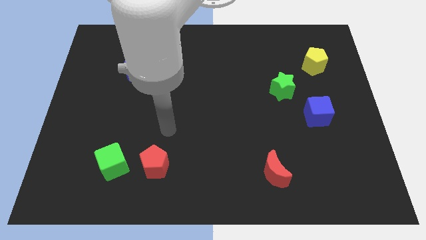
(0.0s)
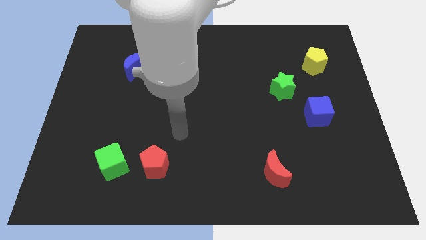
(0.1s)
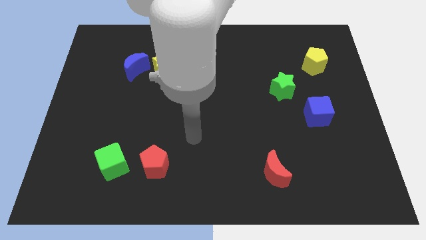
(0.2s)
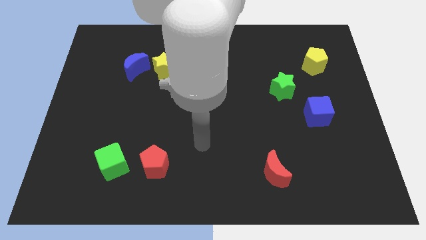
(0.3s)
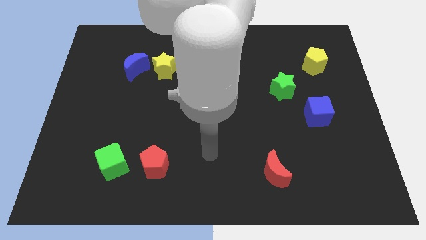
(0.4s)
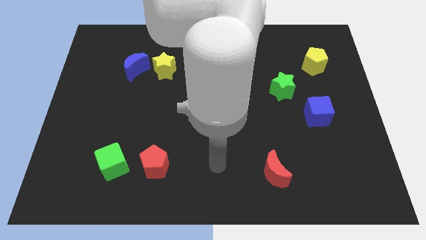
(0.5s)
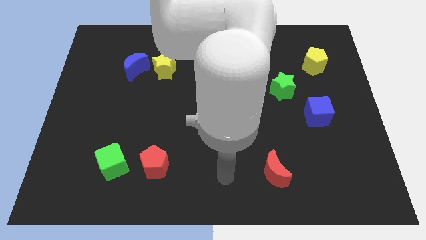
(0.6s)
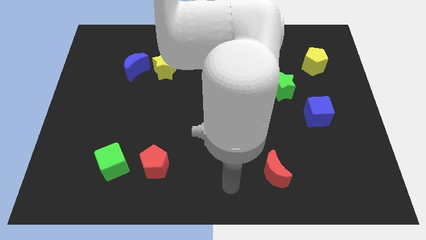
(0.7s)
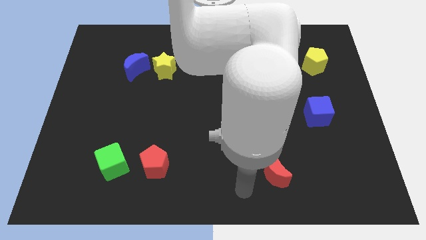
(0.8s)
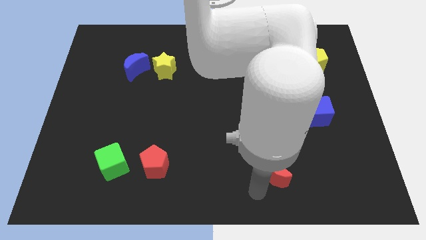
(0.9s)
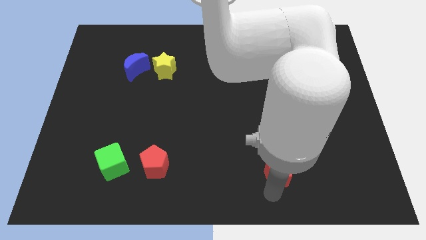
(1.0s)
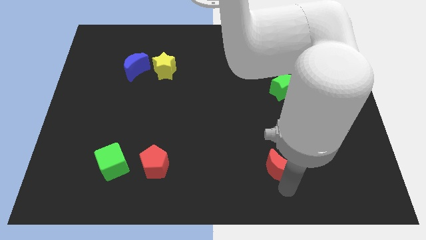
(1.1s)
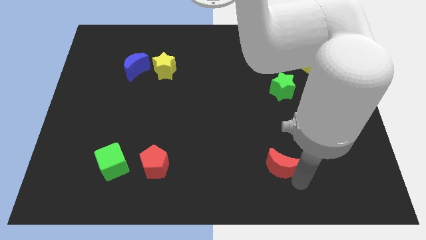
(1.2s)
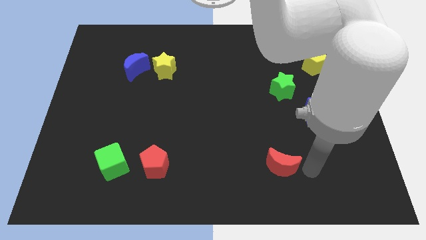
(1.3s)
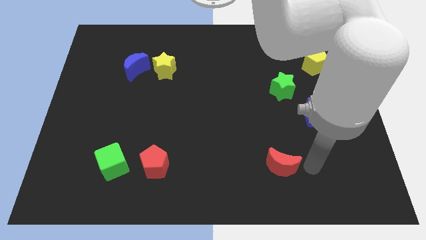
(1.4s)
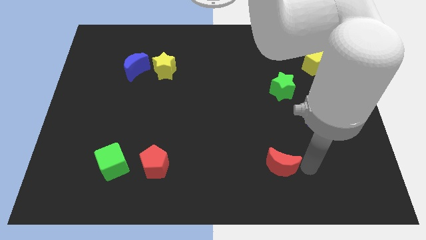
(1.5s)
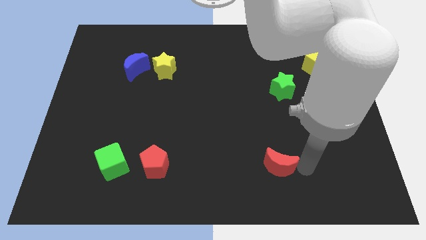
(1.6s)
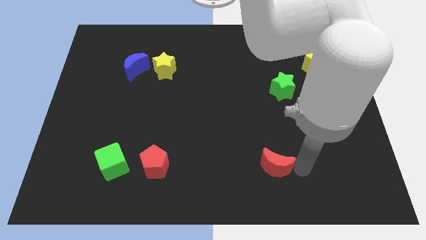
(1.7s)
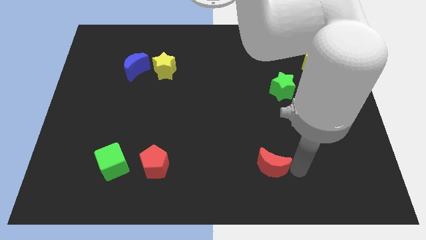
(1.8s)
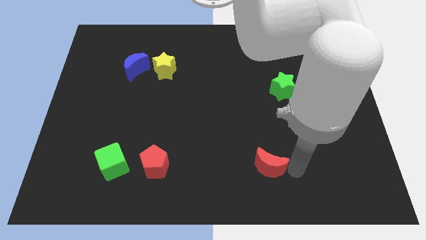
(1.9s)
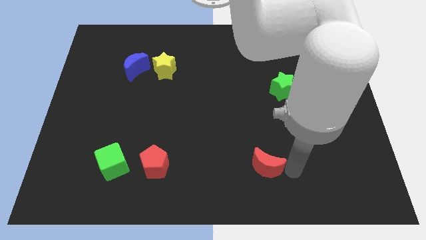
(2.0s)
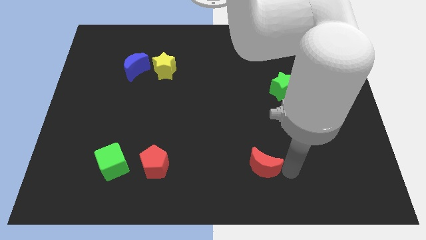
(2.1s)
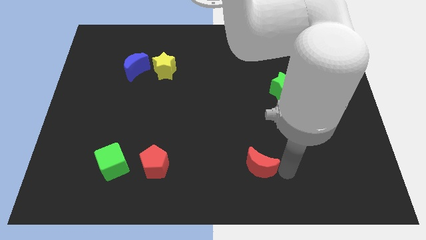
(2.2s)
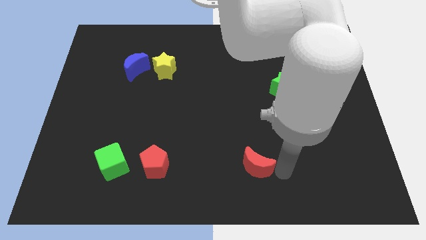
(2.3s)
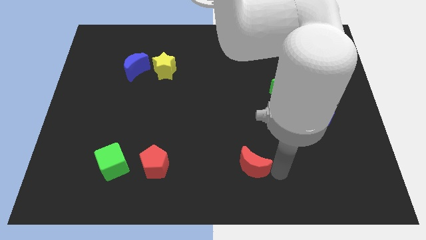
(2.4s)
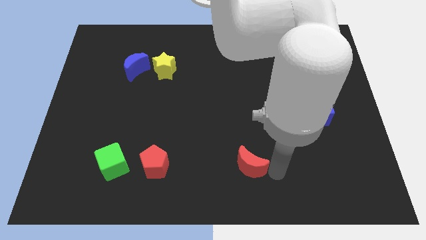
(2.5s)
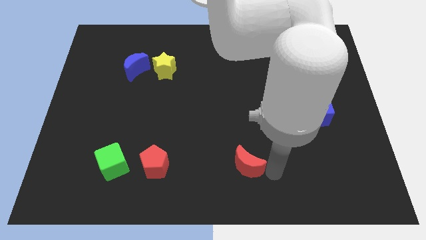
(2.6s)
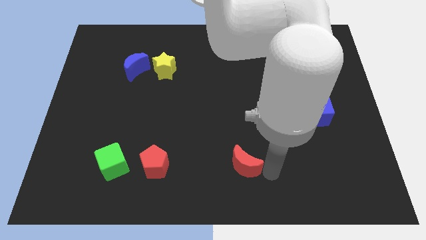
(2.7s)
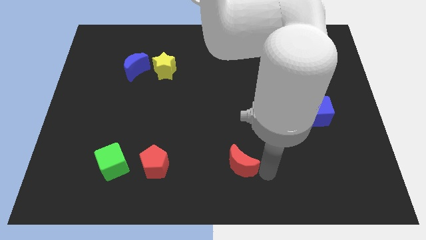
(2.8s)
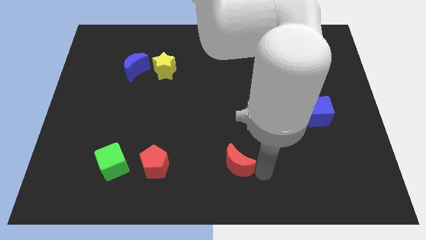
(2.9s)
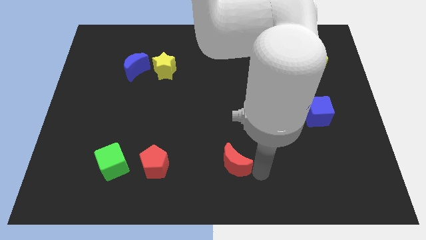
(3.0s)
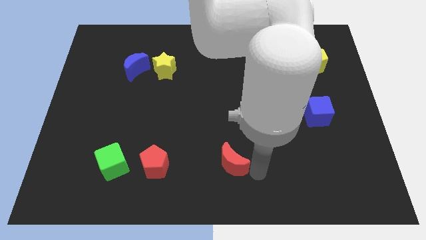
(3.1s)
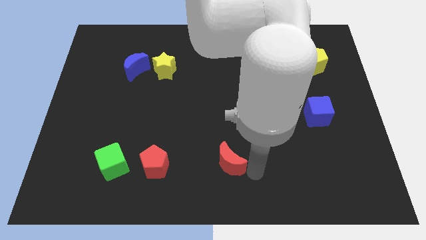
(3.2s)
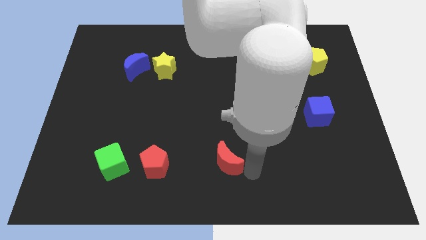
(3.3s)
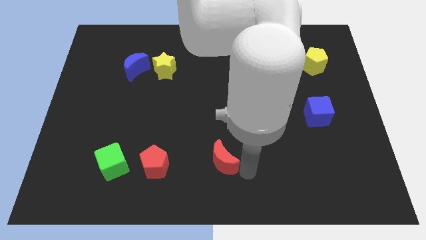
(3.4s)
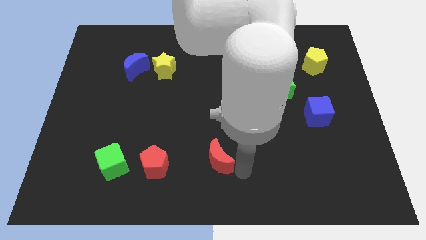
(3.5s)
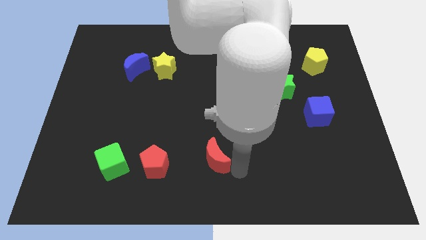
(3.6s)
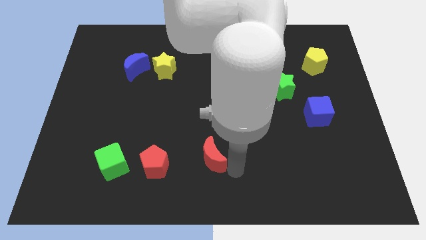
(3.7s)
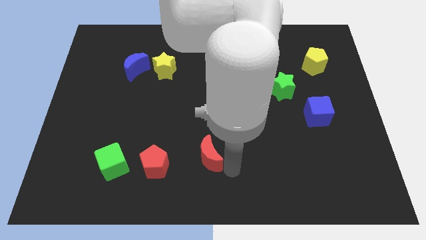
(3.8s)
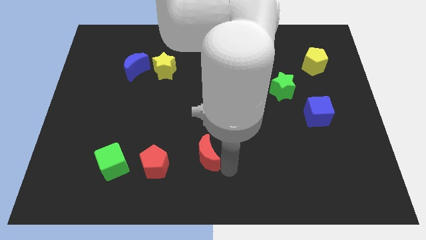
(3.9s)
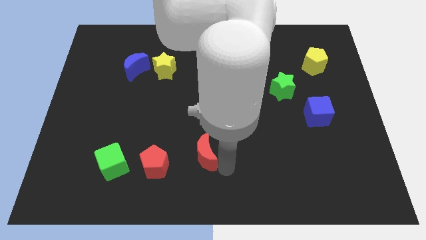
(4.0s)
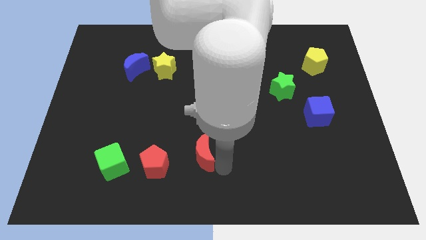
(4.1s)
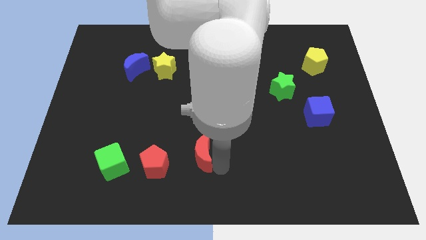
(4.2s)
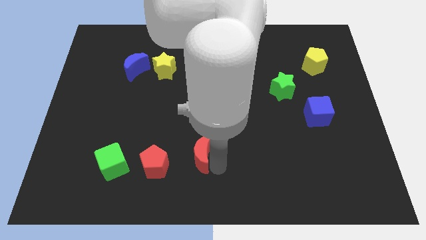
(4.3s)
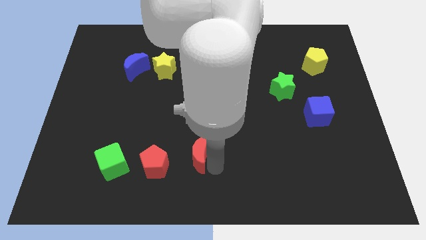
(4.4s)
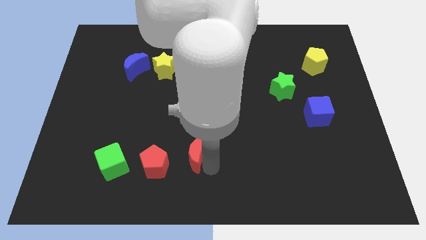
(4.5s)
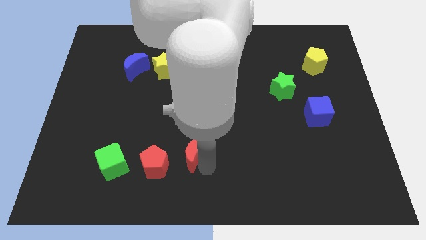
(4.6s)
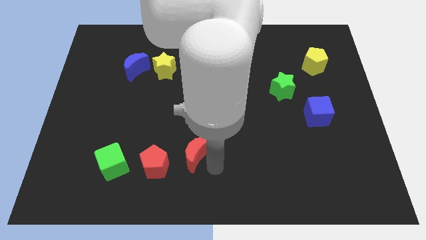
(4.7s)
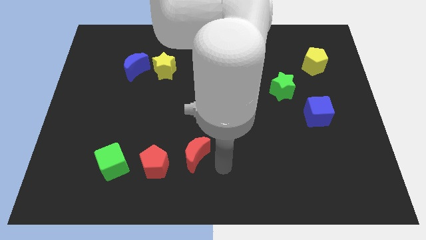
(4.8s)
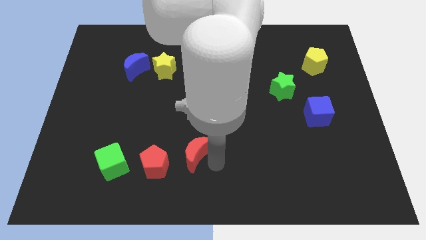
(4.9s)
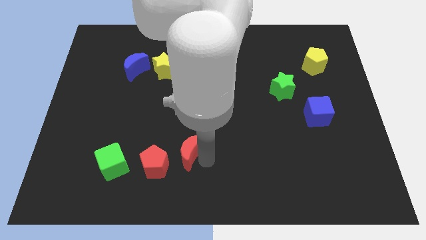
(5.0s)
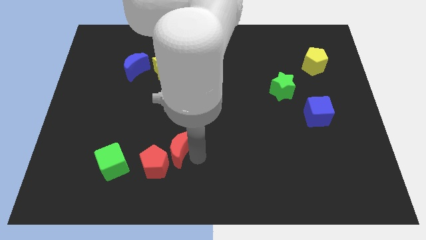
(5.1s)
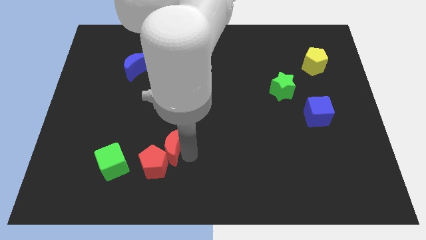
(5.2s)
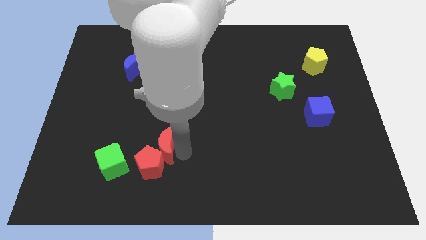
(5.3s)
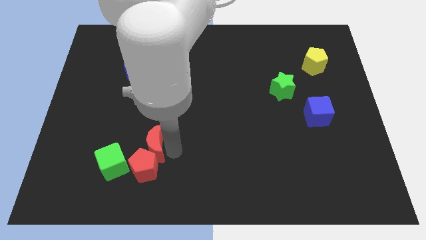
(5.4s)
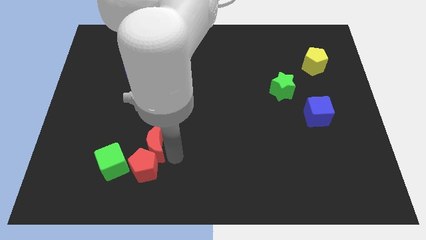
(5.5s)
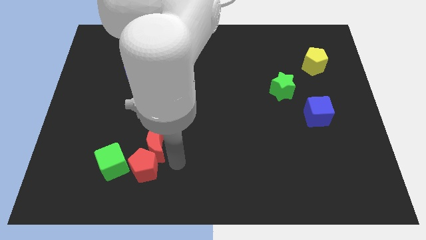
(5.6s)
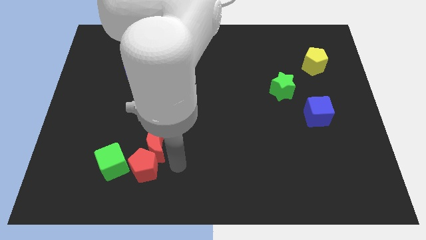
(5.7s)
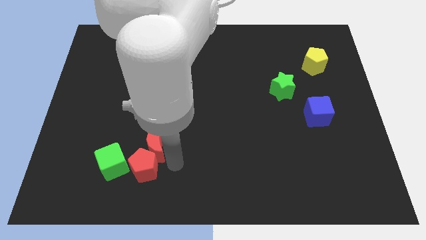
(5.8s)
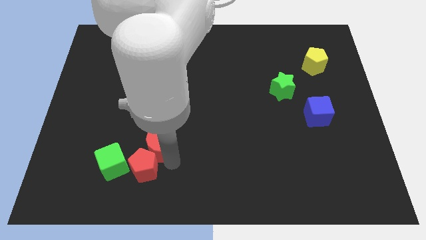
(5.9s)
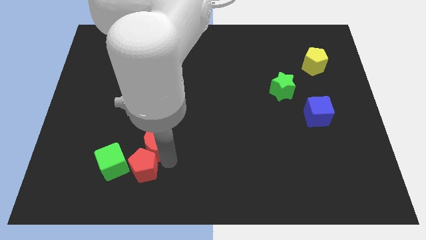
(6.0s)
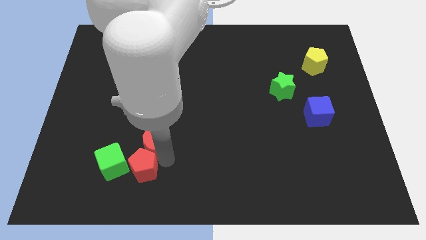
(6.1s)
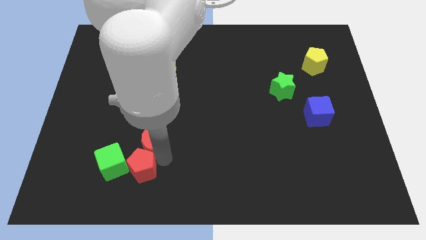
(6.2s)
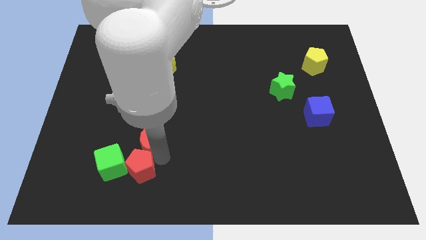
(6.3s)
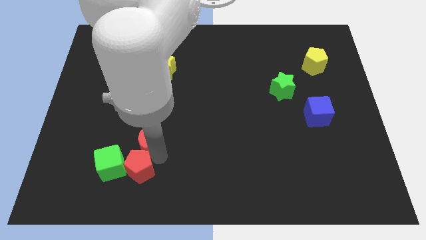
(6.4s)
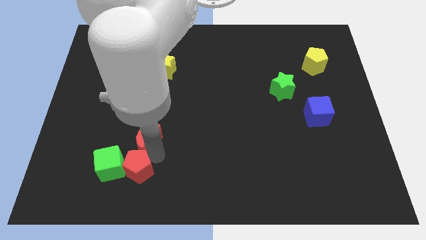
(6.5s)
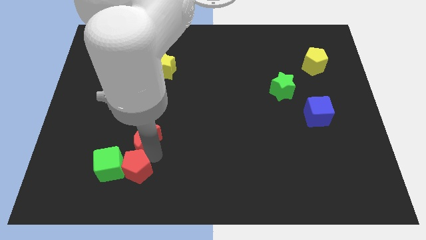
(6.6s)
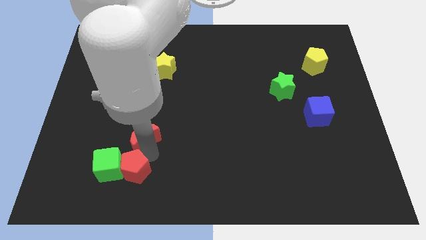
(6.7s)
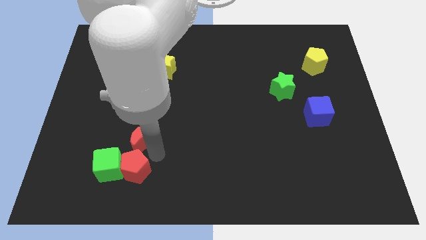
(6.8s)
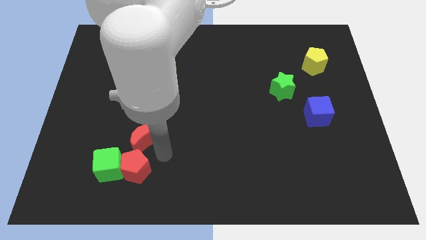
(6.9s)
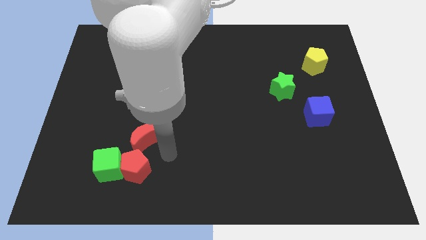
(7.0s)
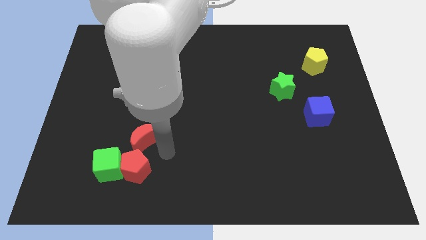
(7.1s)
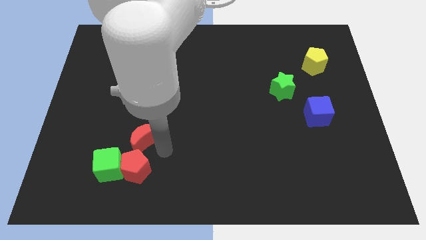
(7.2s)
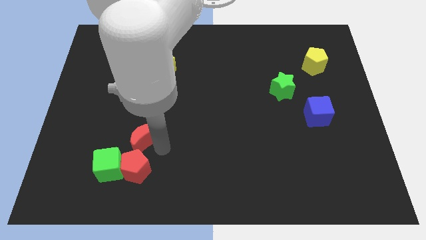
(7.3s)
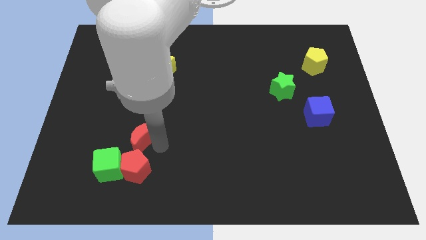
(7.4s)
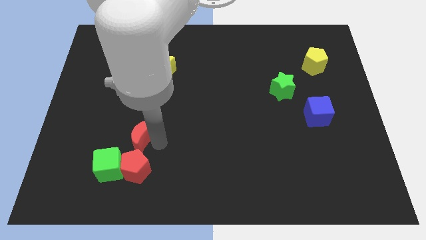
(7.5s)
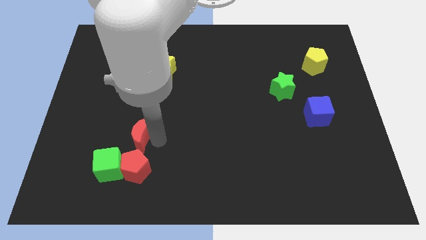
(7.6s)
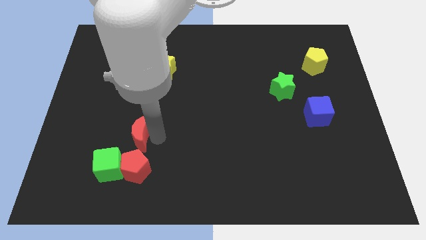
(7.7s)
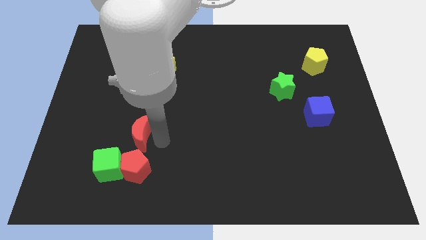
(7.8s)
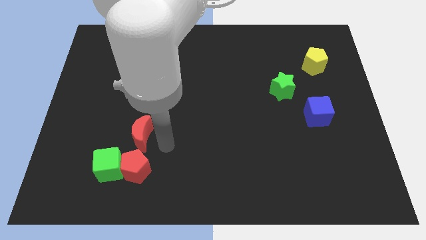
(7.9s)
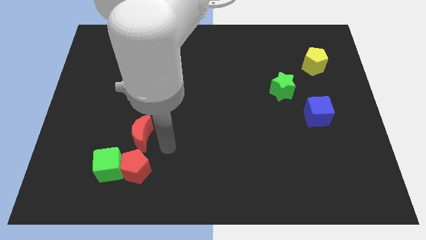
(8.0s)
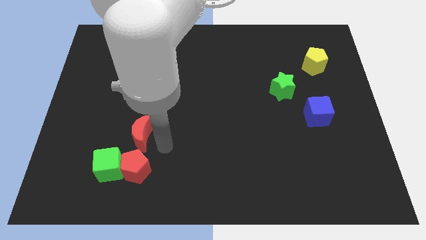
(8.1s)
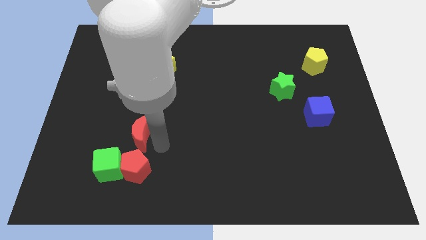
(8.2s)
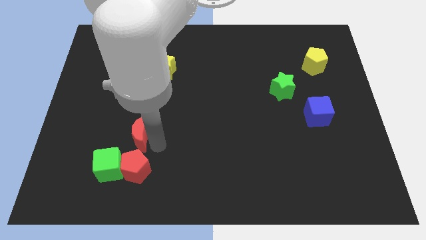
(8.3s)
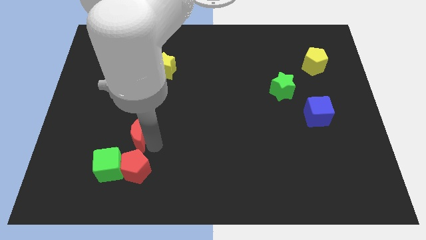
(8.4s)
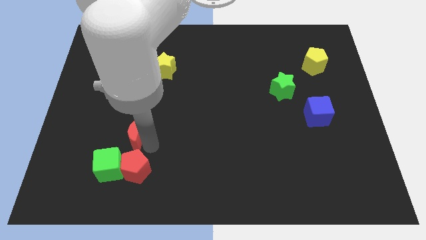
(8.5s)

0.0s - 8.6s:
slide the red moon above the green cube
